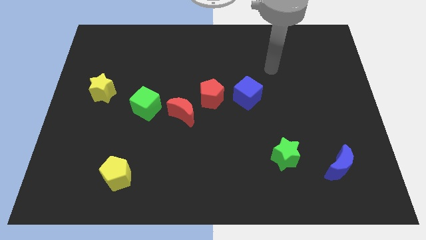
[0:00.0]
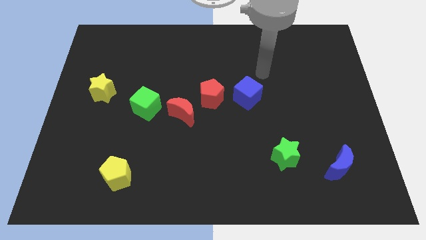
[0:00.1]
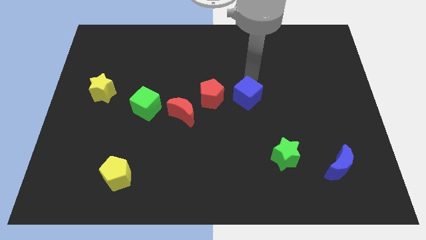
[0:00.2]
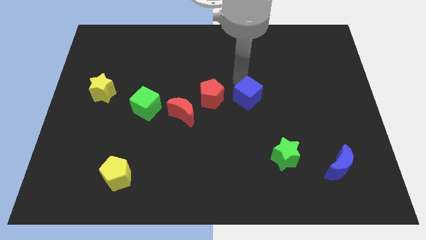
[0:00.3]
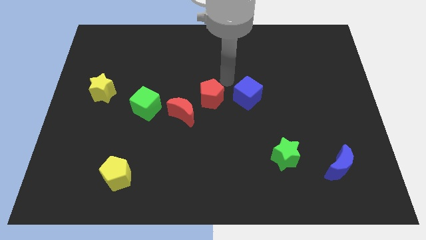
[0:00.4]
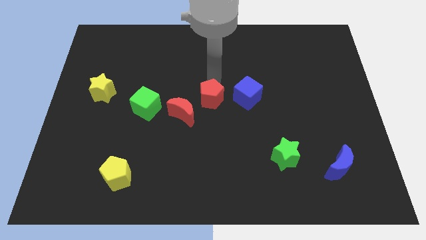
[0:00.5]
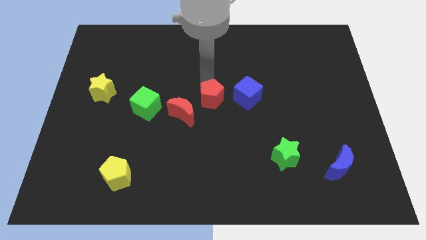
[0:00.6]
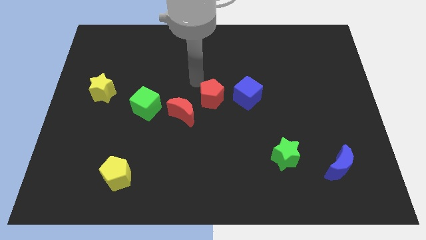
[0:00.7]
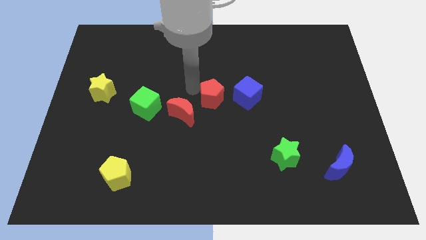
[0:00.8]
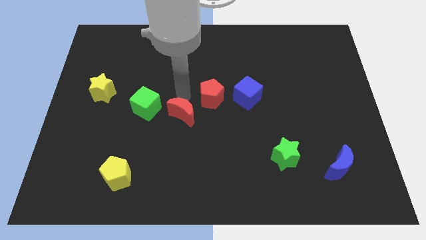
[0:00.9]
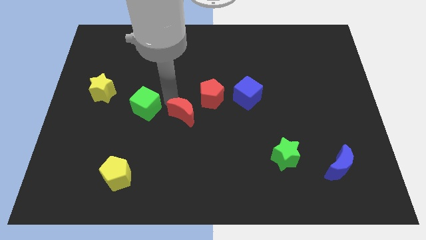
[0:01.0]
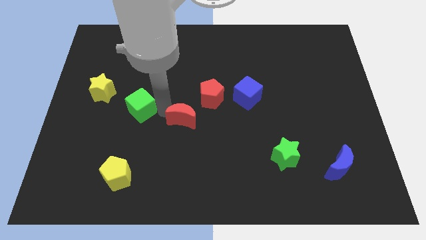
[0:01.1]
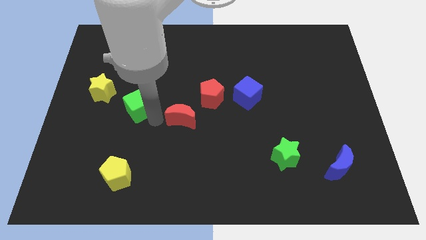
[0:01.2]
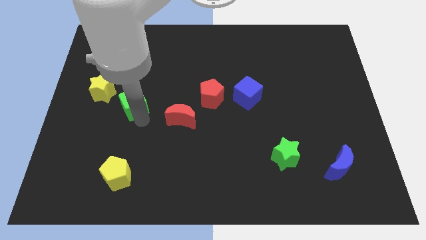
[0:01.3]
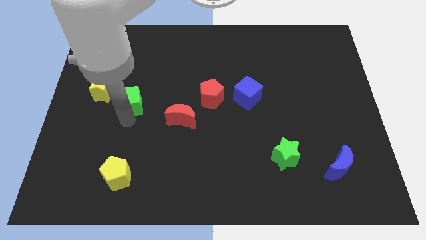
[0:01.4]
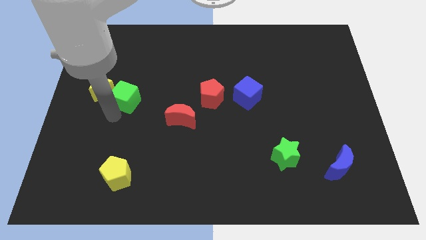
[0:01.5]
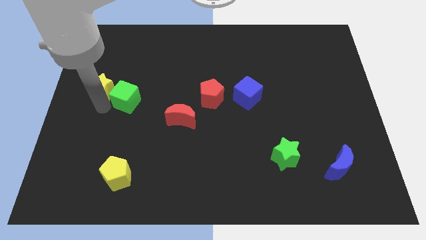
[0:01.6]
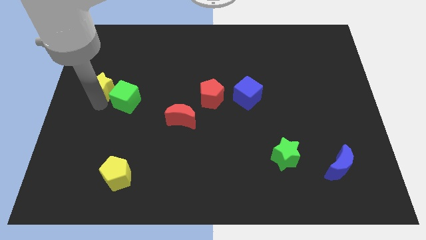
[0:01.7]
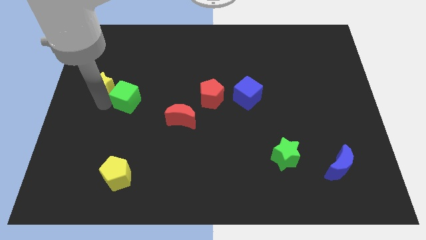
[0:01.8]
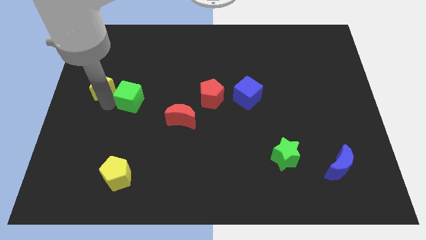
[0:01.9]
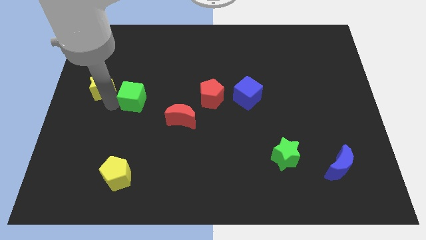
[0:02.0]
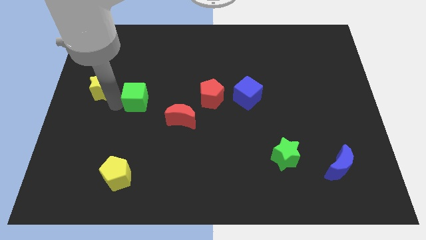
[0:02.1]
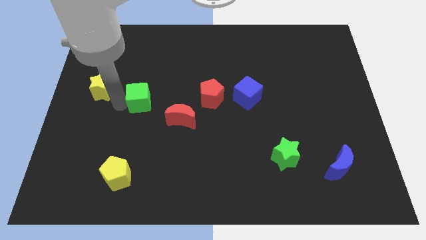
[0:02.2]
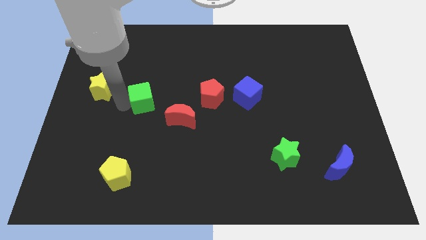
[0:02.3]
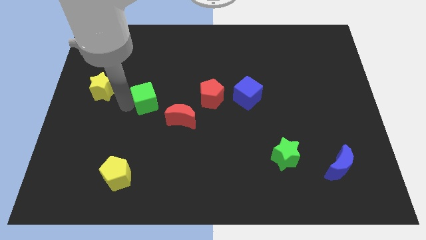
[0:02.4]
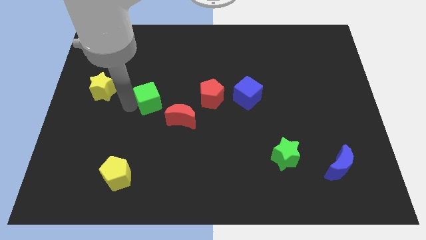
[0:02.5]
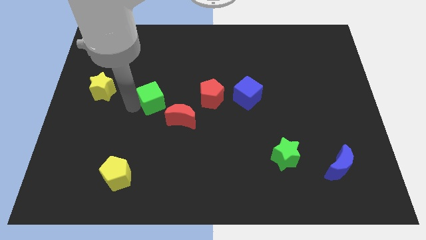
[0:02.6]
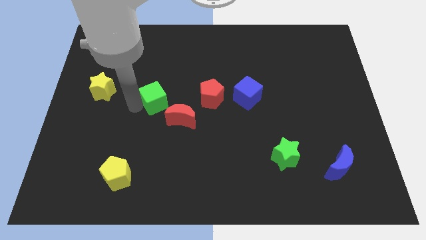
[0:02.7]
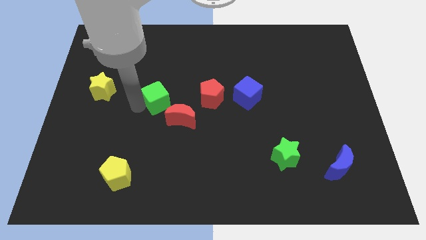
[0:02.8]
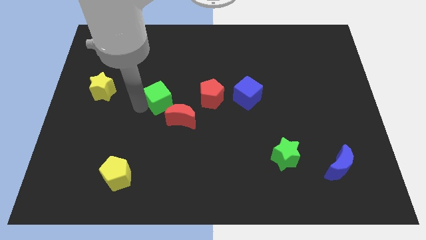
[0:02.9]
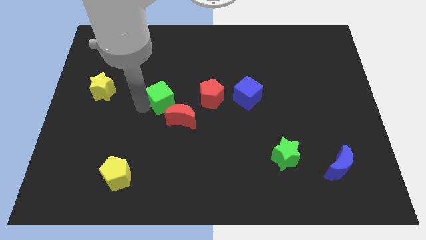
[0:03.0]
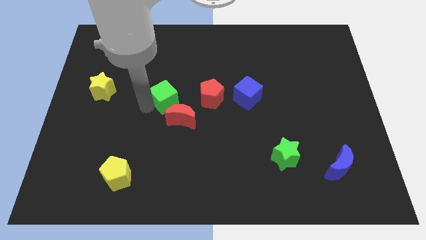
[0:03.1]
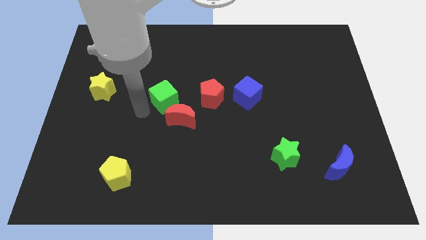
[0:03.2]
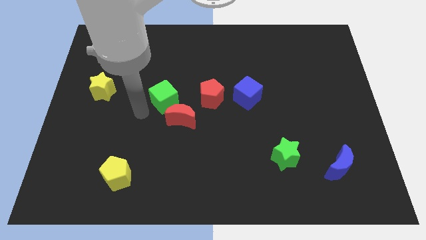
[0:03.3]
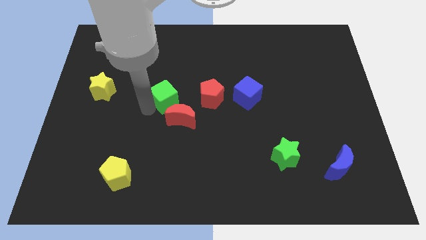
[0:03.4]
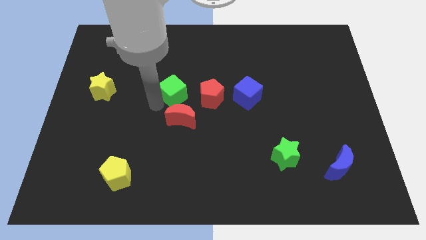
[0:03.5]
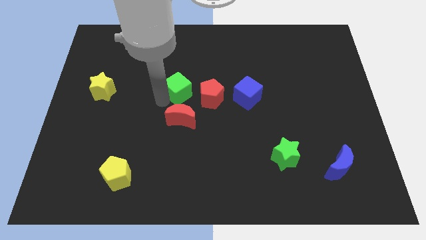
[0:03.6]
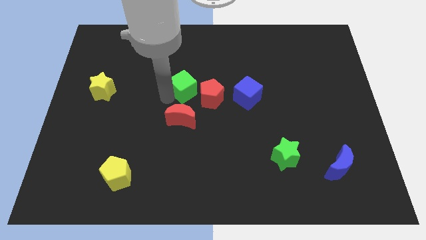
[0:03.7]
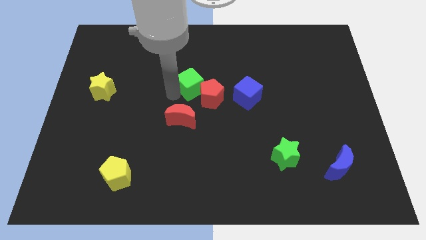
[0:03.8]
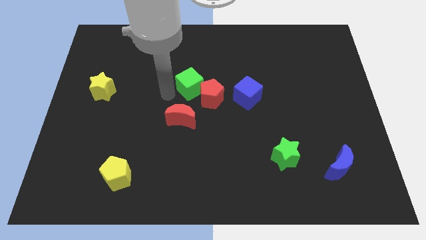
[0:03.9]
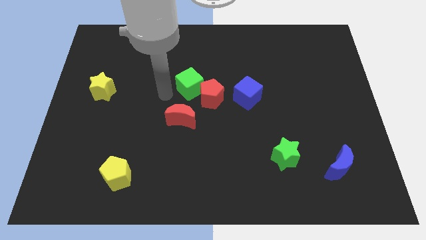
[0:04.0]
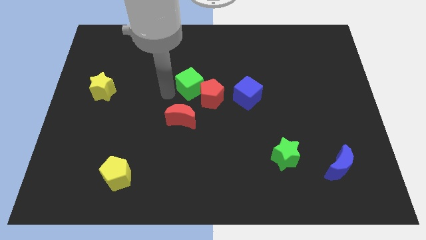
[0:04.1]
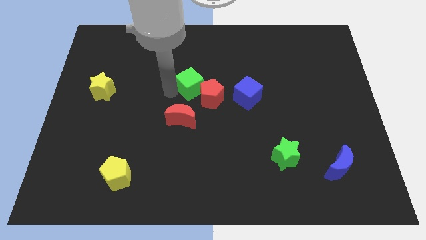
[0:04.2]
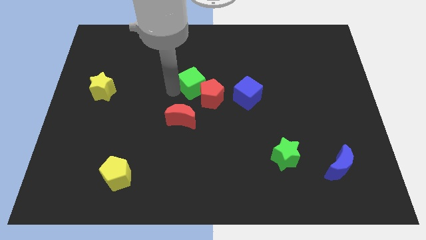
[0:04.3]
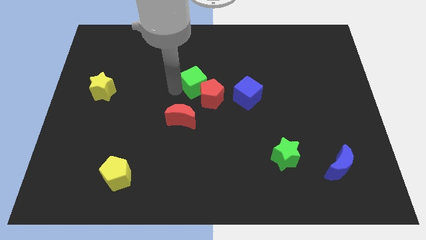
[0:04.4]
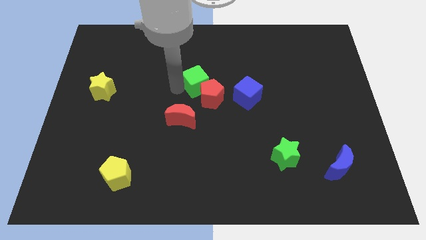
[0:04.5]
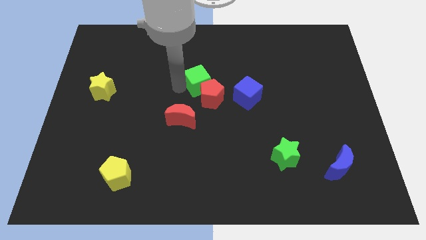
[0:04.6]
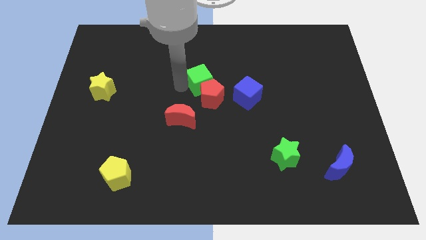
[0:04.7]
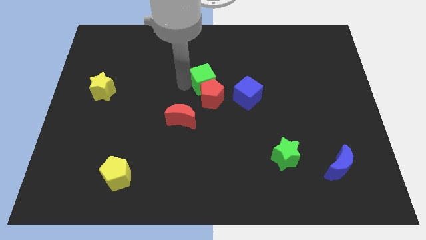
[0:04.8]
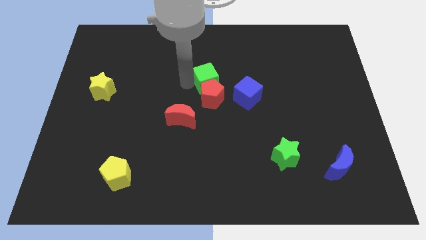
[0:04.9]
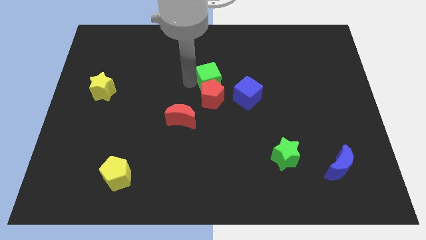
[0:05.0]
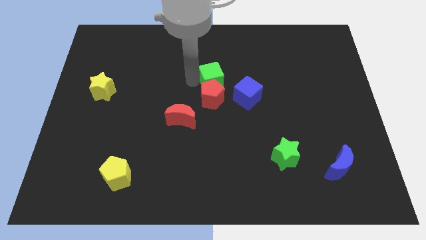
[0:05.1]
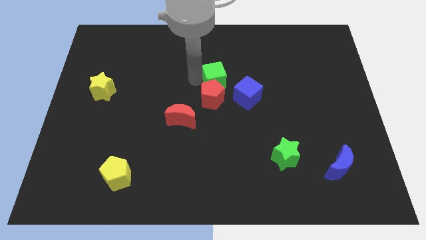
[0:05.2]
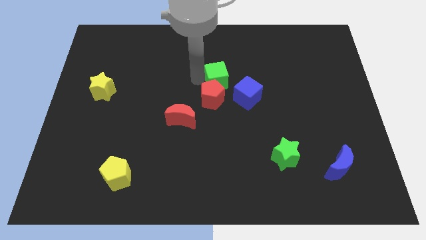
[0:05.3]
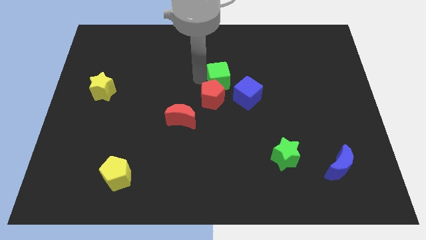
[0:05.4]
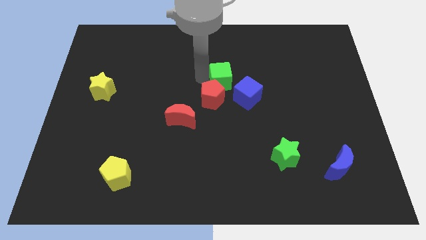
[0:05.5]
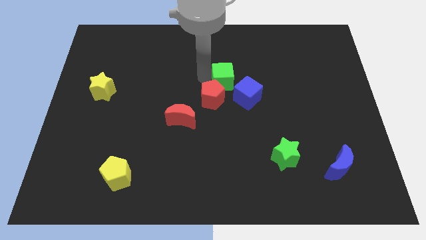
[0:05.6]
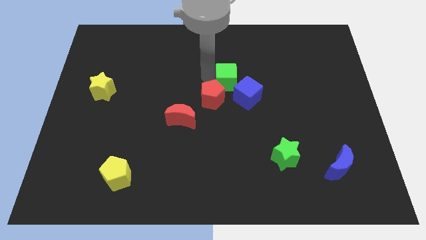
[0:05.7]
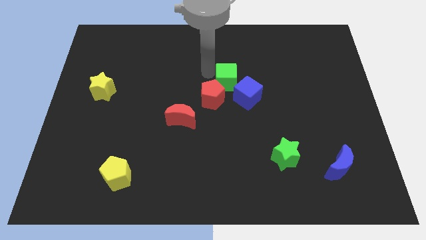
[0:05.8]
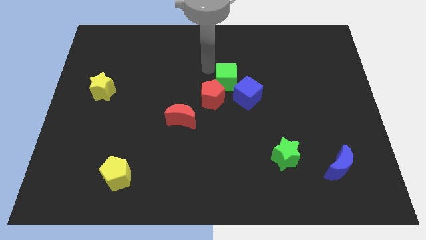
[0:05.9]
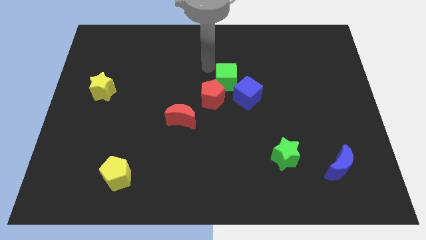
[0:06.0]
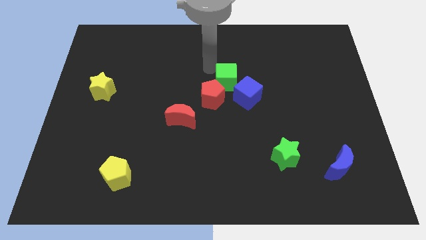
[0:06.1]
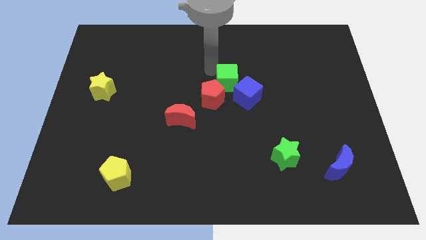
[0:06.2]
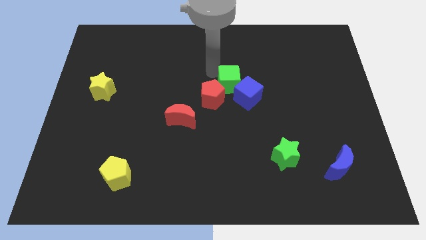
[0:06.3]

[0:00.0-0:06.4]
move the green cube to the blue cube

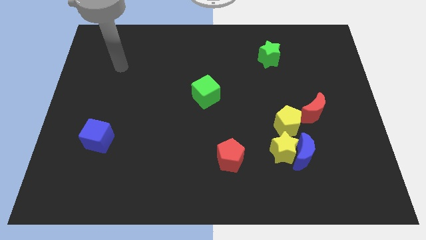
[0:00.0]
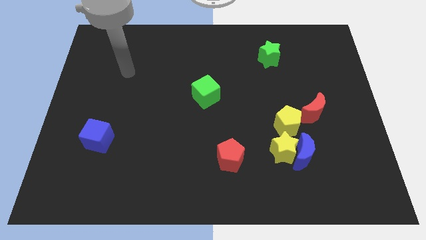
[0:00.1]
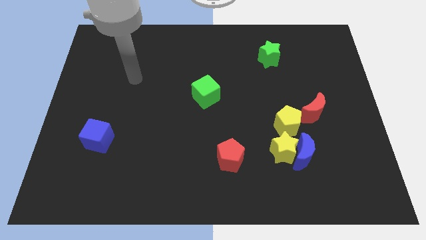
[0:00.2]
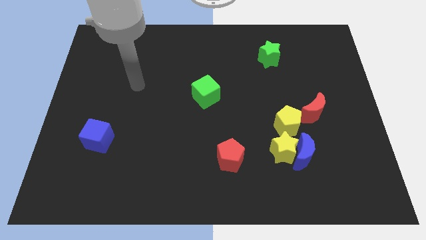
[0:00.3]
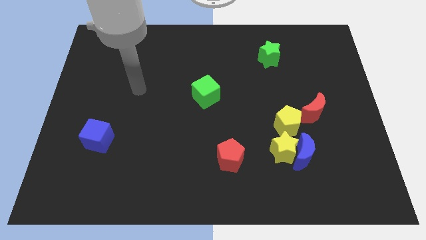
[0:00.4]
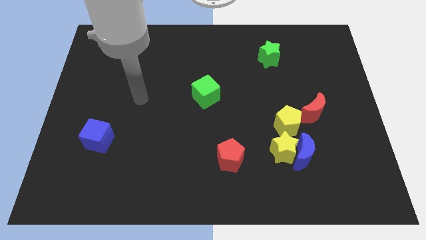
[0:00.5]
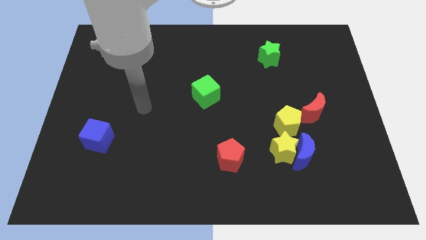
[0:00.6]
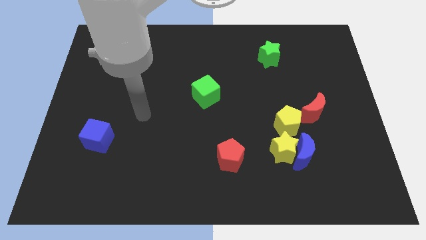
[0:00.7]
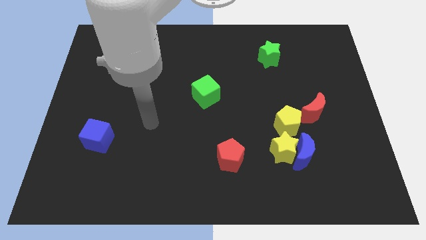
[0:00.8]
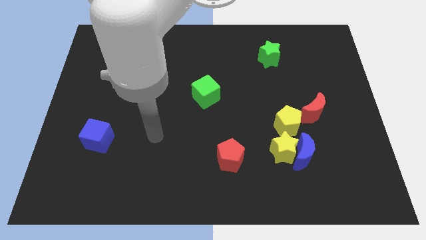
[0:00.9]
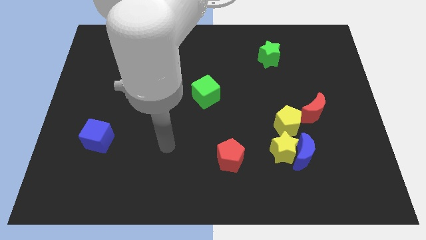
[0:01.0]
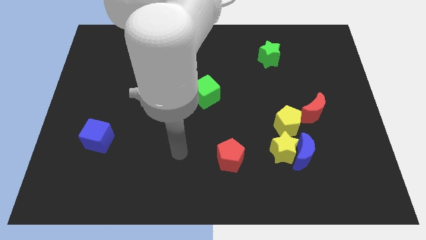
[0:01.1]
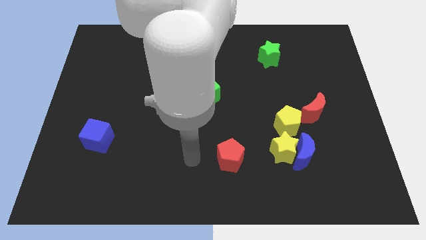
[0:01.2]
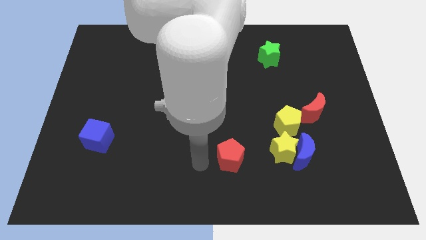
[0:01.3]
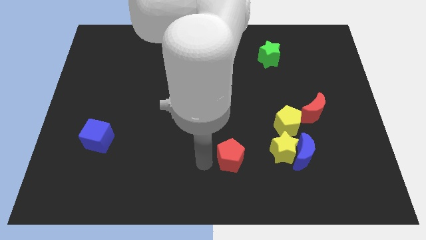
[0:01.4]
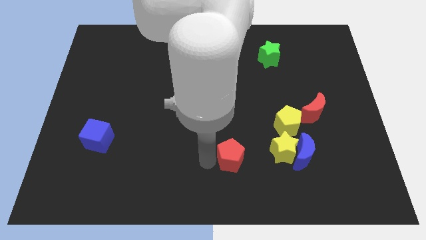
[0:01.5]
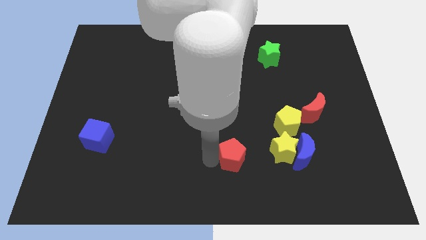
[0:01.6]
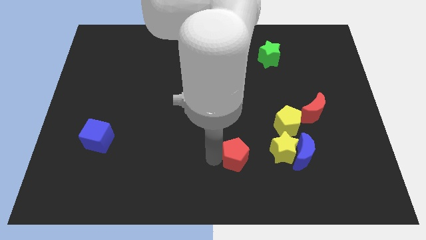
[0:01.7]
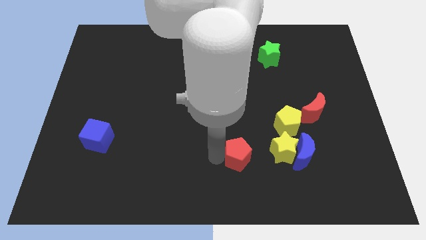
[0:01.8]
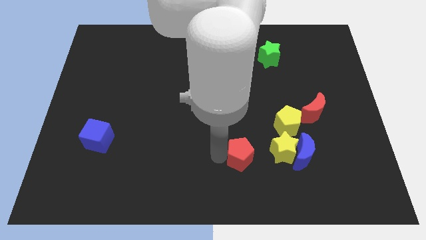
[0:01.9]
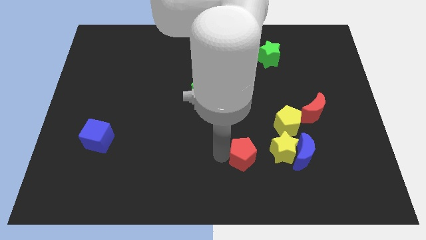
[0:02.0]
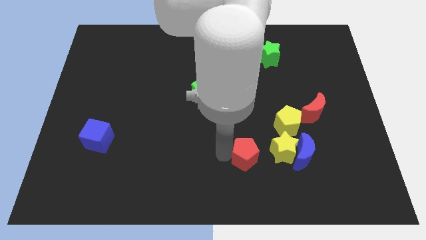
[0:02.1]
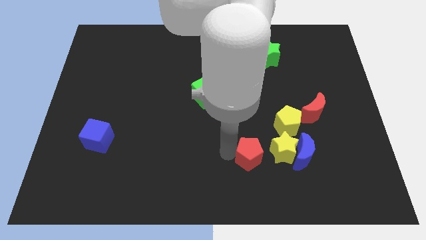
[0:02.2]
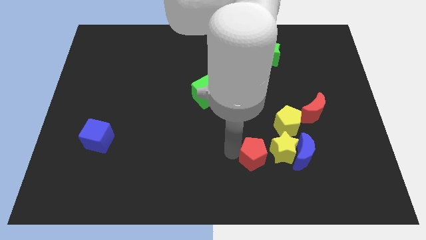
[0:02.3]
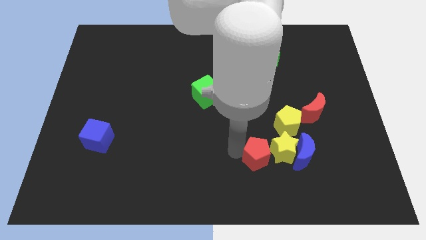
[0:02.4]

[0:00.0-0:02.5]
put the red pentagon to the yellow star
